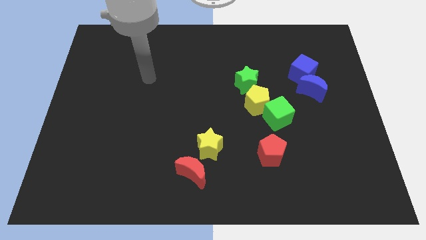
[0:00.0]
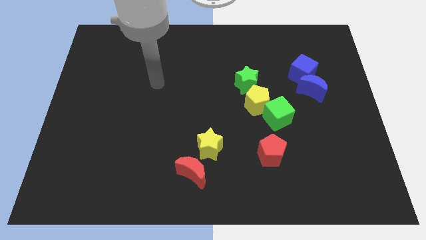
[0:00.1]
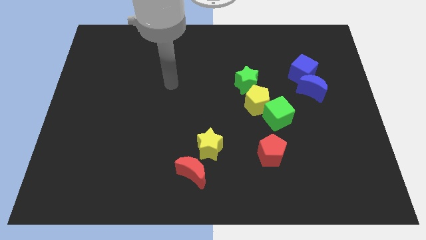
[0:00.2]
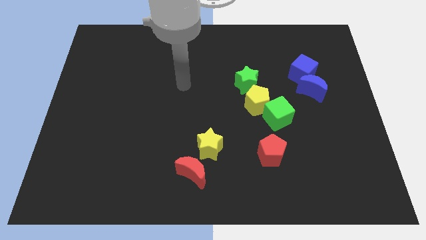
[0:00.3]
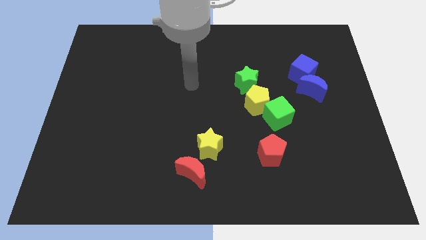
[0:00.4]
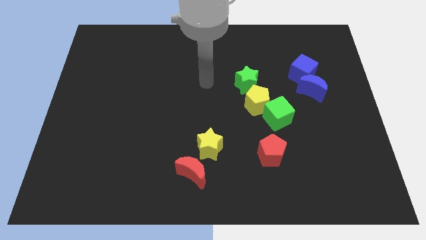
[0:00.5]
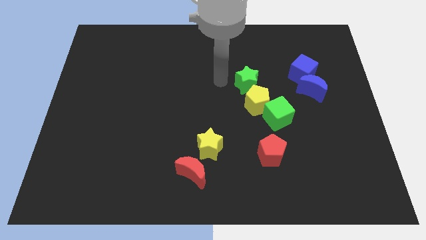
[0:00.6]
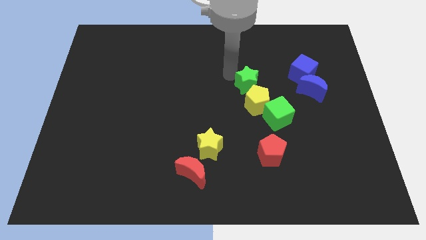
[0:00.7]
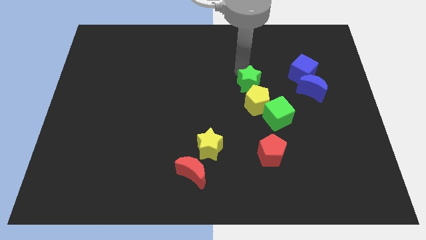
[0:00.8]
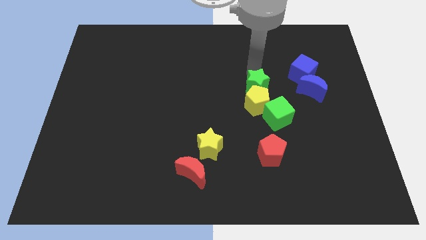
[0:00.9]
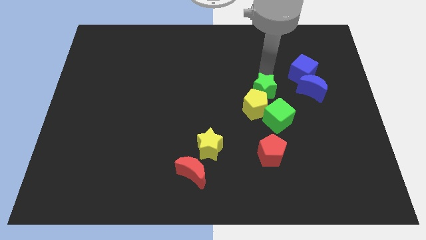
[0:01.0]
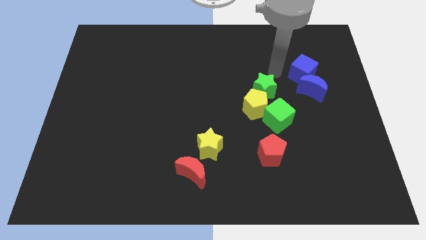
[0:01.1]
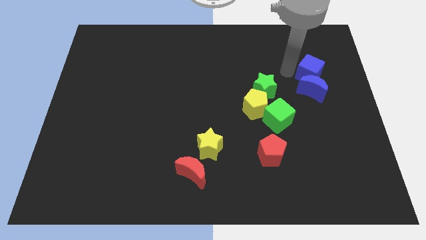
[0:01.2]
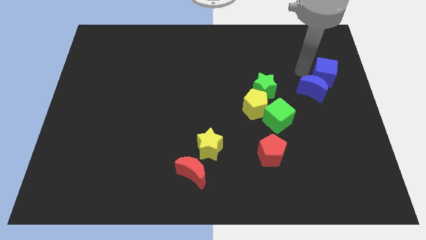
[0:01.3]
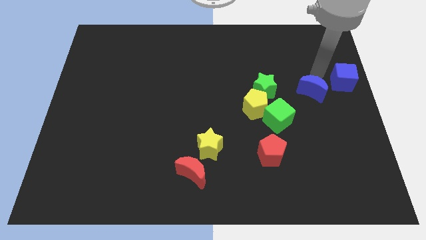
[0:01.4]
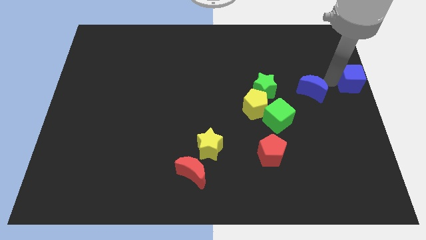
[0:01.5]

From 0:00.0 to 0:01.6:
separate the blue moon from the blue cube

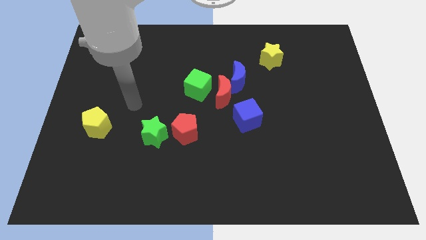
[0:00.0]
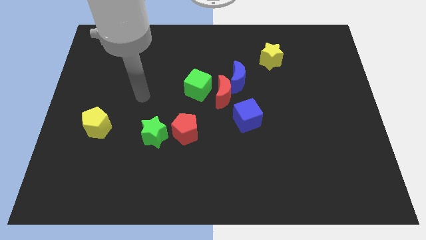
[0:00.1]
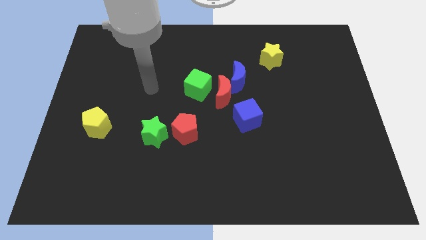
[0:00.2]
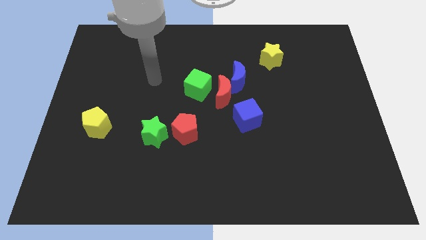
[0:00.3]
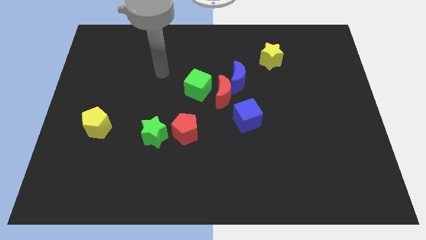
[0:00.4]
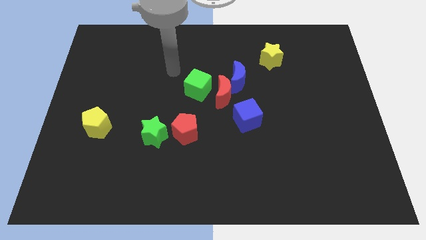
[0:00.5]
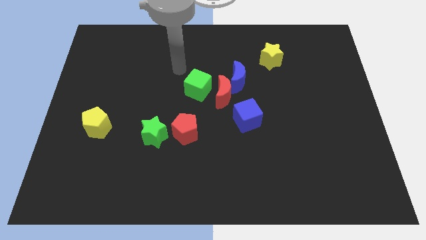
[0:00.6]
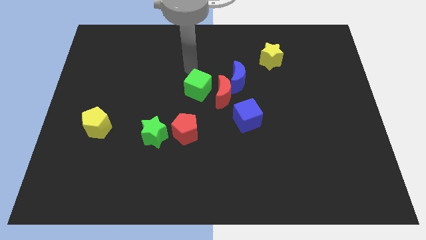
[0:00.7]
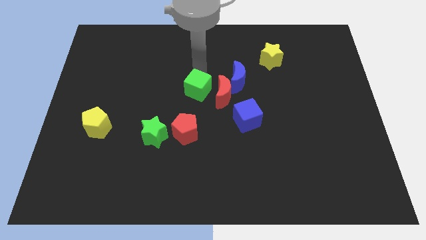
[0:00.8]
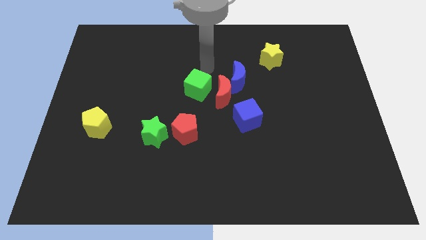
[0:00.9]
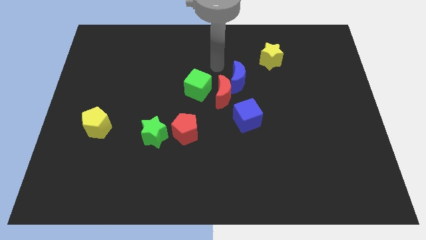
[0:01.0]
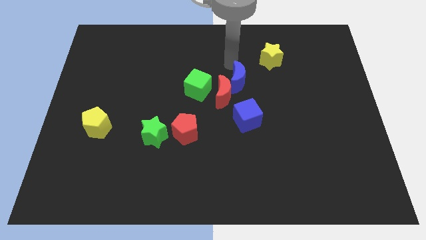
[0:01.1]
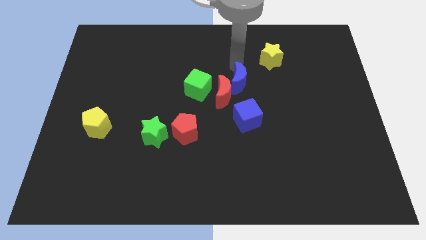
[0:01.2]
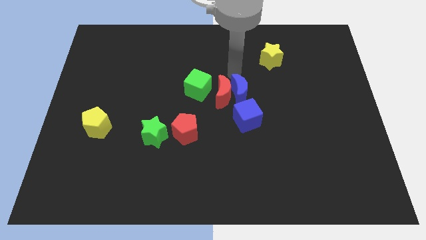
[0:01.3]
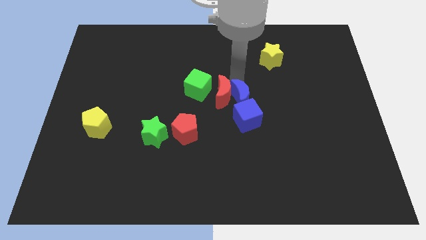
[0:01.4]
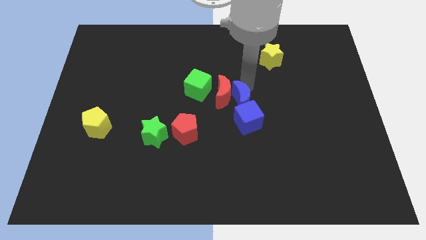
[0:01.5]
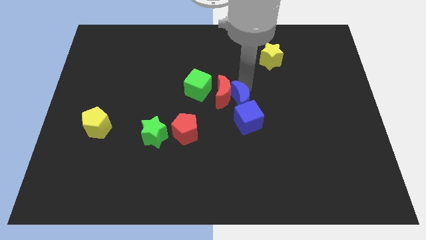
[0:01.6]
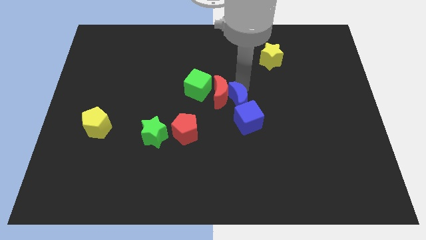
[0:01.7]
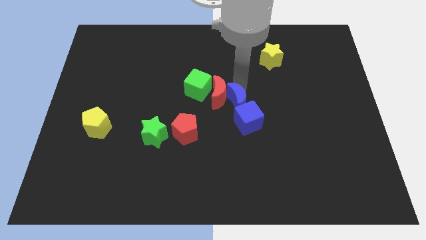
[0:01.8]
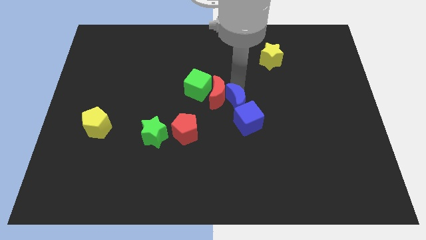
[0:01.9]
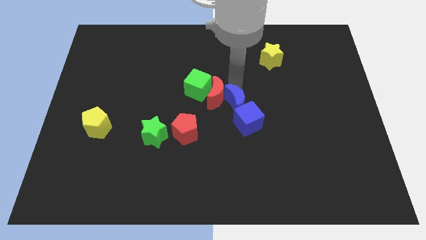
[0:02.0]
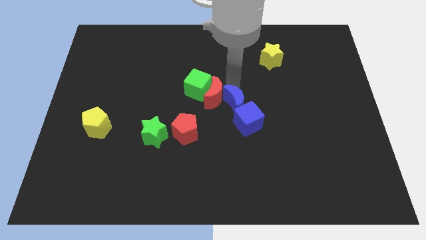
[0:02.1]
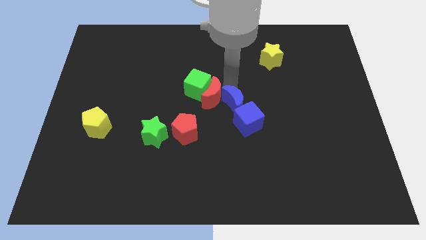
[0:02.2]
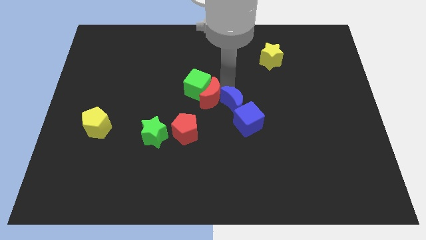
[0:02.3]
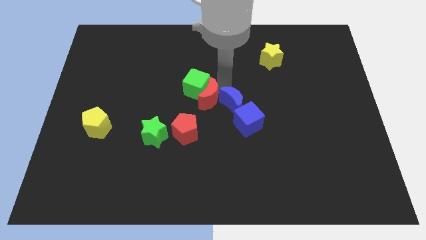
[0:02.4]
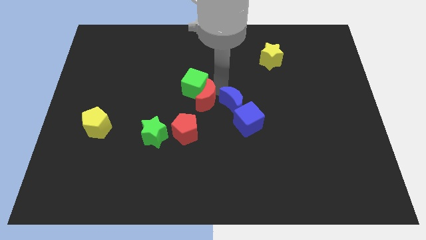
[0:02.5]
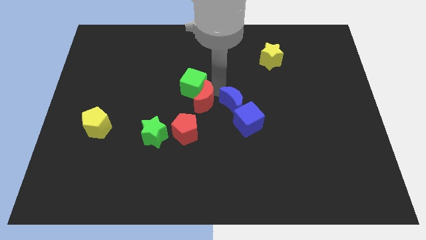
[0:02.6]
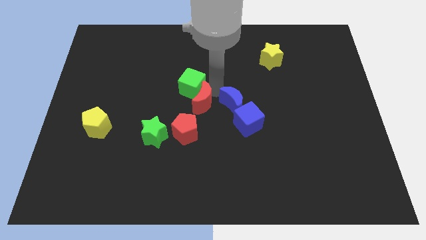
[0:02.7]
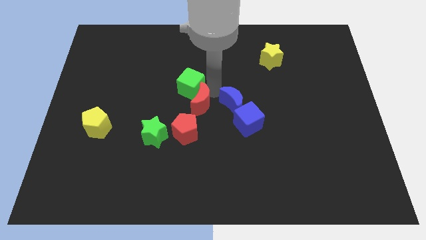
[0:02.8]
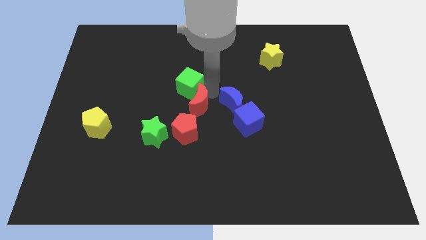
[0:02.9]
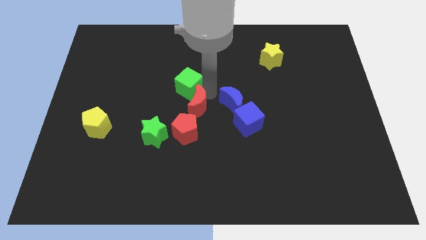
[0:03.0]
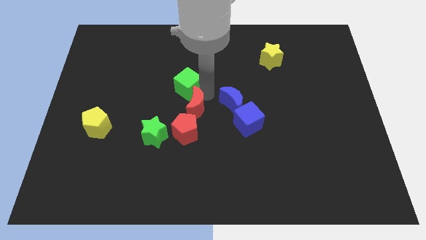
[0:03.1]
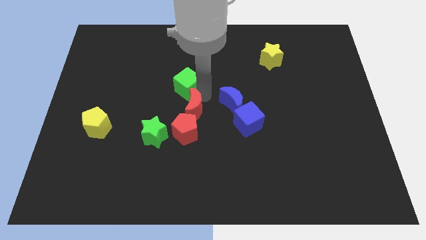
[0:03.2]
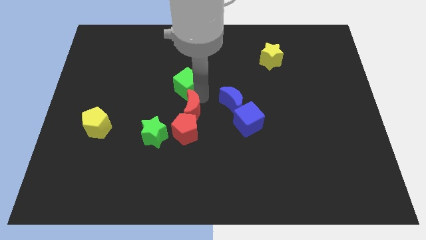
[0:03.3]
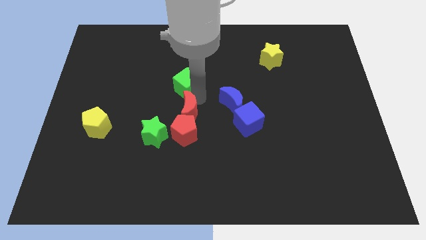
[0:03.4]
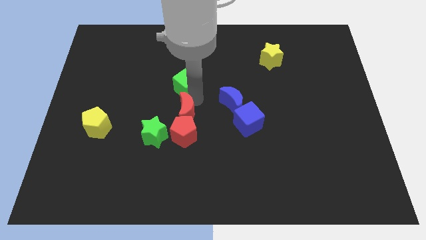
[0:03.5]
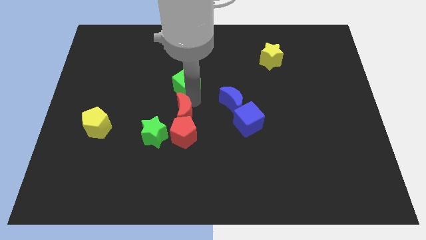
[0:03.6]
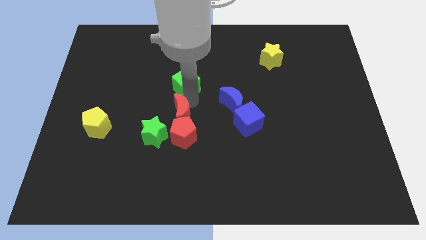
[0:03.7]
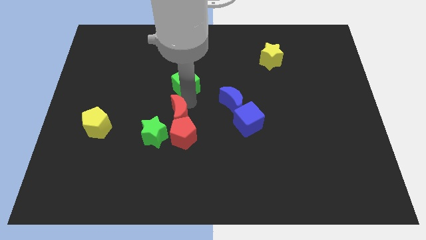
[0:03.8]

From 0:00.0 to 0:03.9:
move the red moon away from the blue moon, green cube, and blue cube

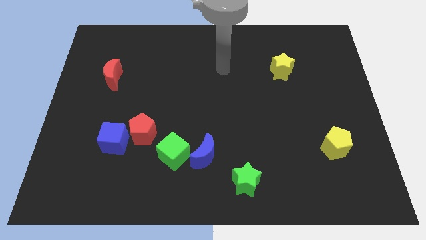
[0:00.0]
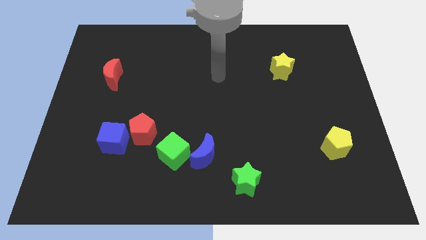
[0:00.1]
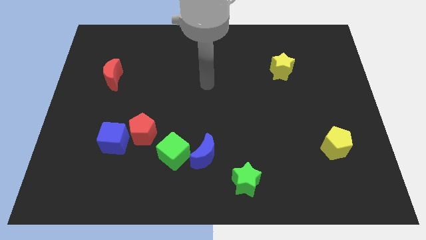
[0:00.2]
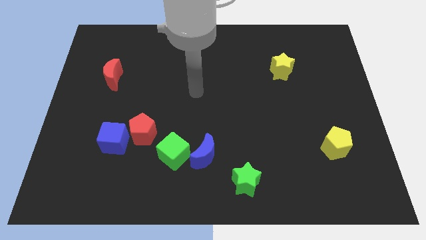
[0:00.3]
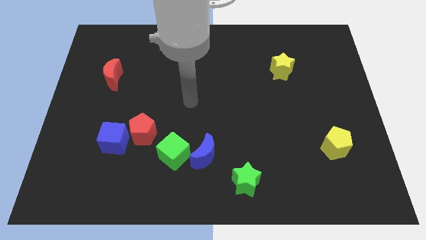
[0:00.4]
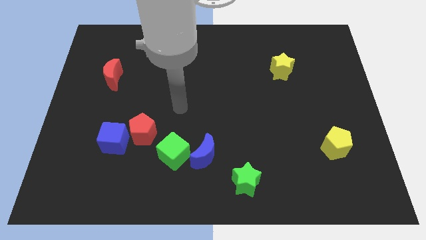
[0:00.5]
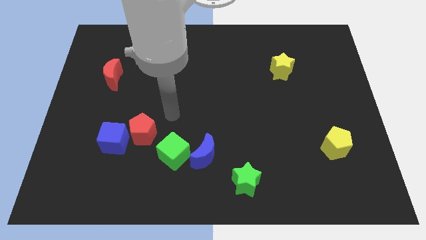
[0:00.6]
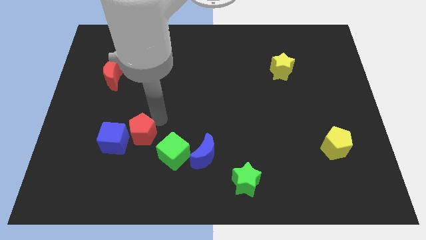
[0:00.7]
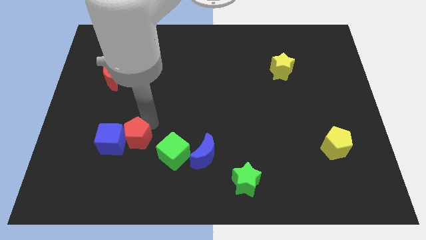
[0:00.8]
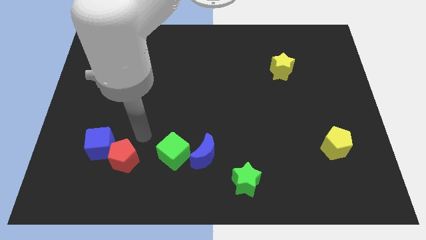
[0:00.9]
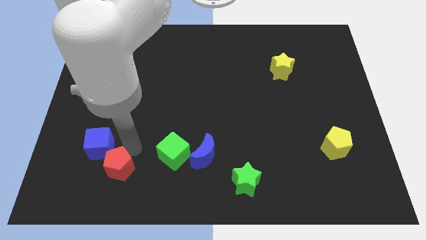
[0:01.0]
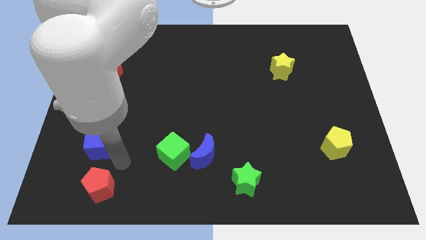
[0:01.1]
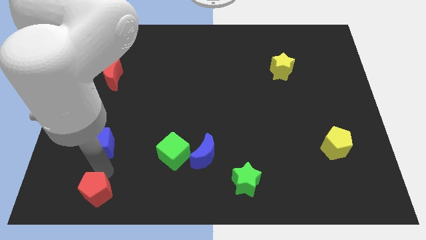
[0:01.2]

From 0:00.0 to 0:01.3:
separate the blue cube from the red pentagon

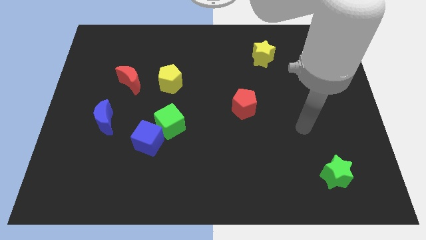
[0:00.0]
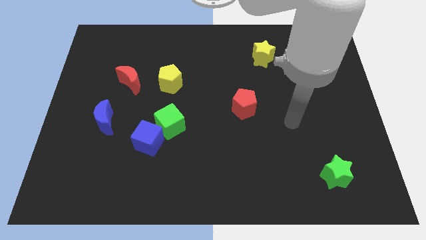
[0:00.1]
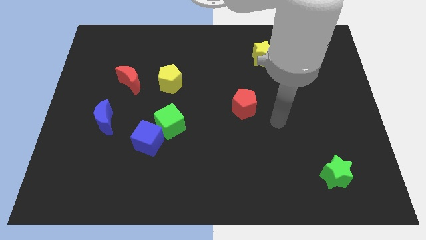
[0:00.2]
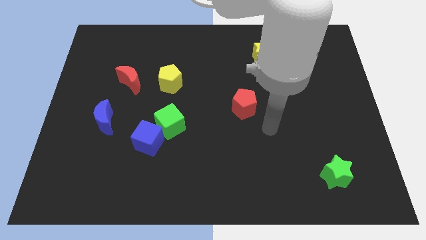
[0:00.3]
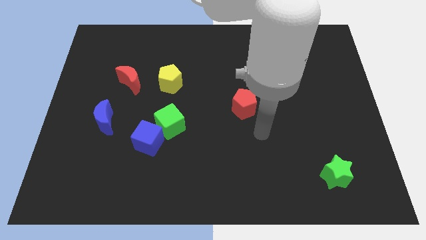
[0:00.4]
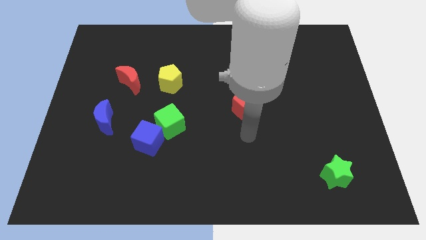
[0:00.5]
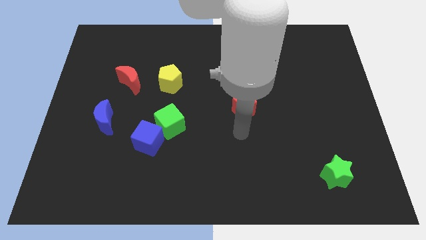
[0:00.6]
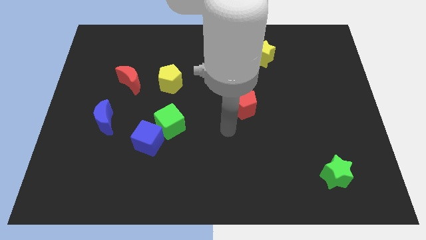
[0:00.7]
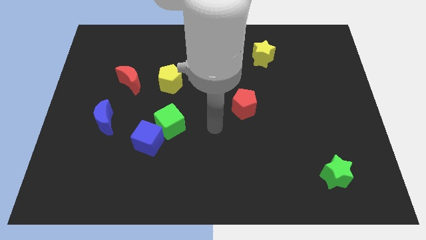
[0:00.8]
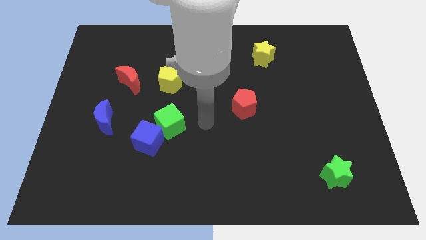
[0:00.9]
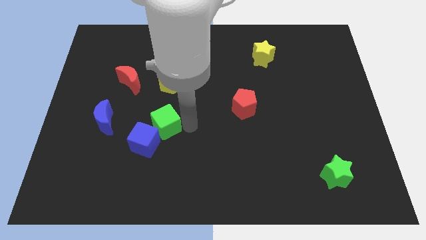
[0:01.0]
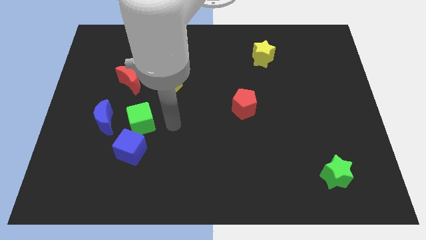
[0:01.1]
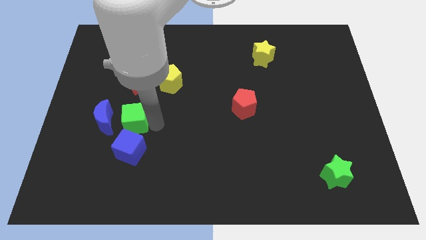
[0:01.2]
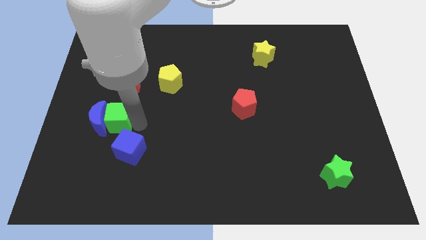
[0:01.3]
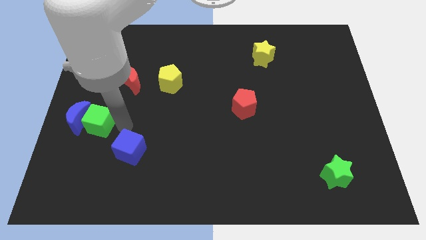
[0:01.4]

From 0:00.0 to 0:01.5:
separate the blue cube from the green cube

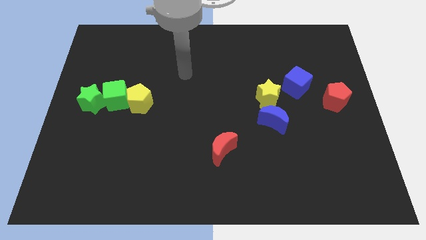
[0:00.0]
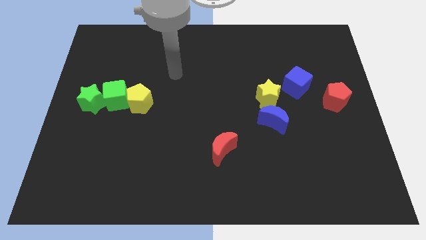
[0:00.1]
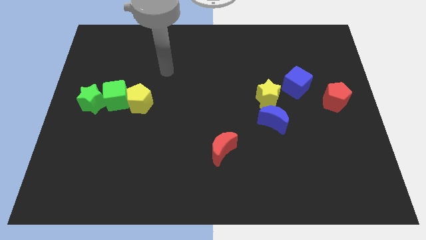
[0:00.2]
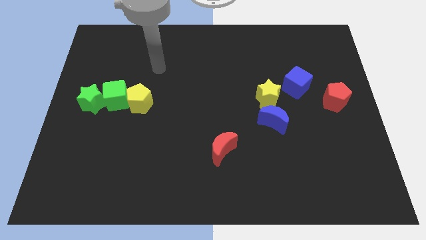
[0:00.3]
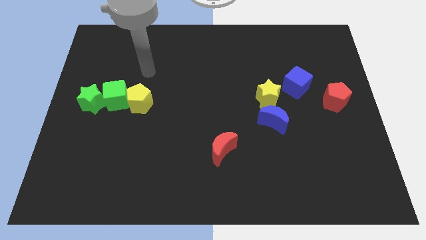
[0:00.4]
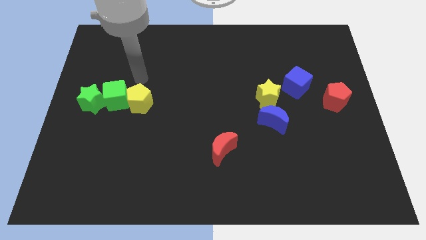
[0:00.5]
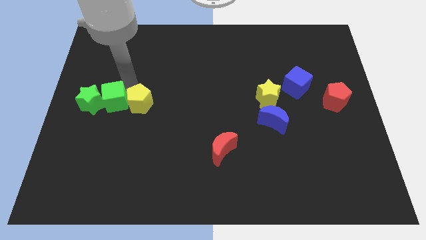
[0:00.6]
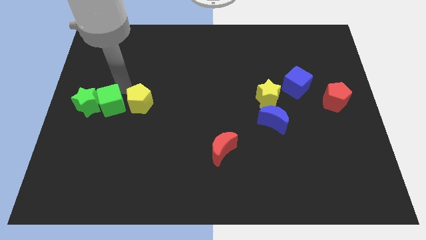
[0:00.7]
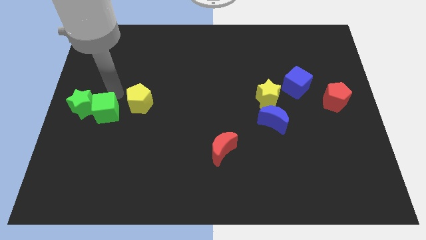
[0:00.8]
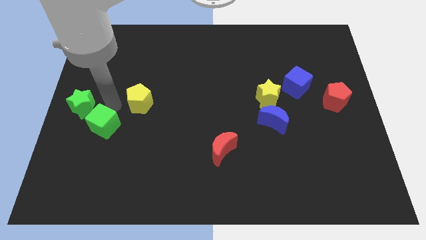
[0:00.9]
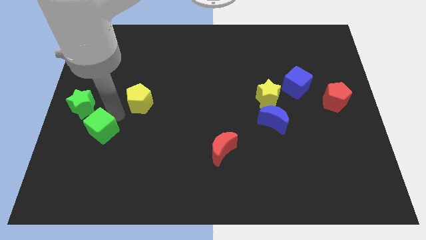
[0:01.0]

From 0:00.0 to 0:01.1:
move the yellow pentagon away from the green cube
